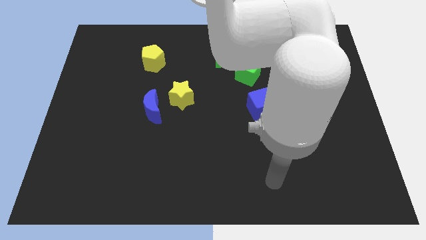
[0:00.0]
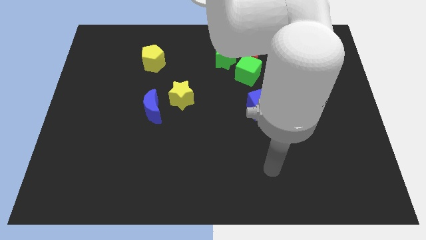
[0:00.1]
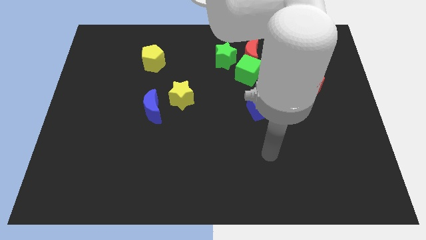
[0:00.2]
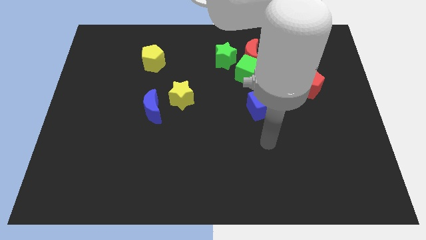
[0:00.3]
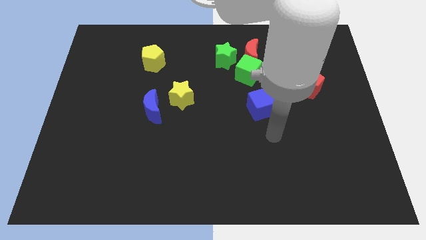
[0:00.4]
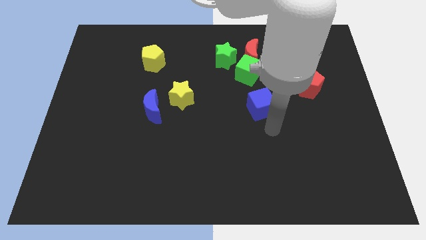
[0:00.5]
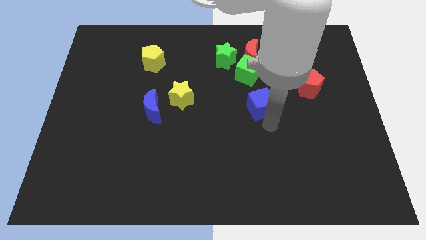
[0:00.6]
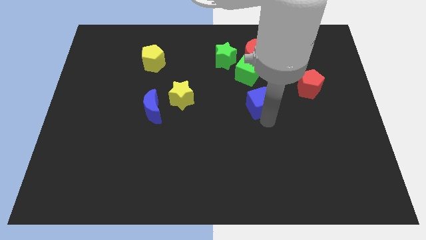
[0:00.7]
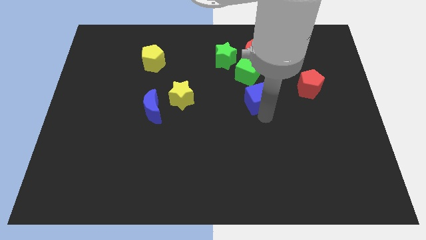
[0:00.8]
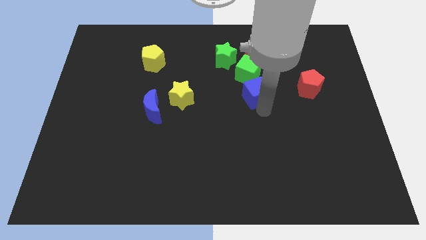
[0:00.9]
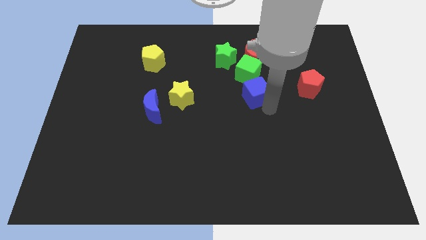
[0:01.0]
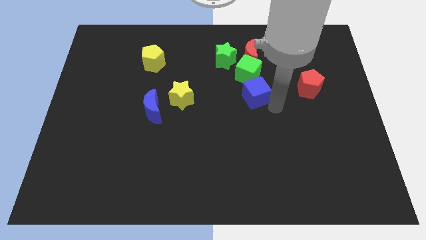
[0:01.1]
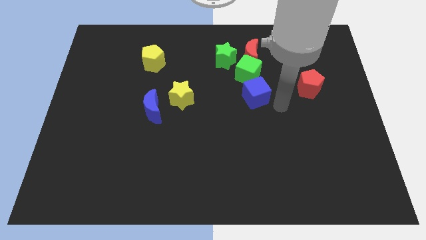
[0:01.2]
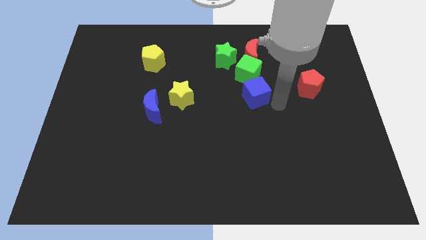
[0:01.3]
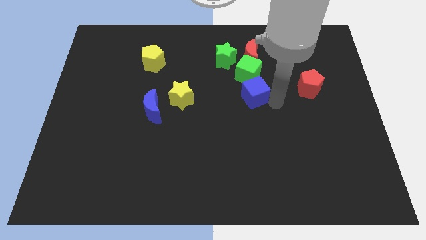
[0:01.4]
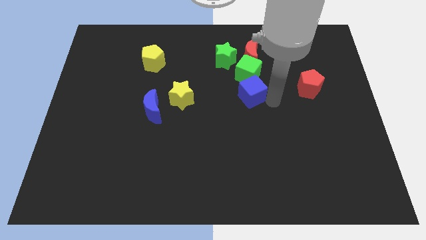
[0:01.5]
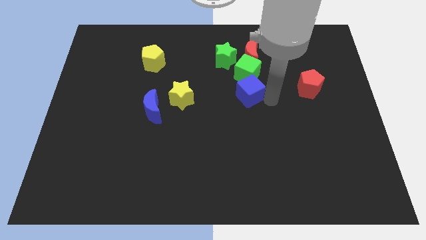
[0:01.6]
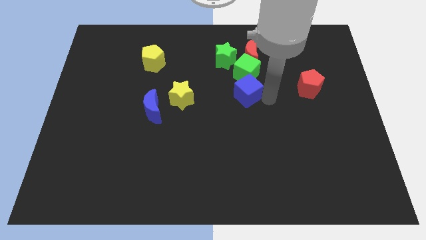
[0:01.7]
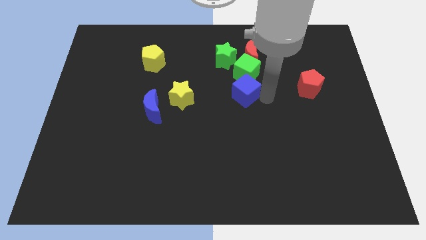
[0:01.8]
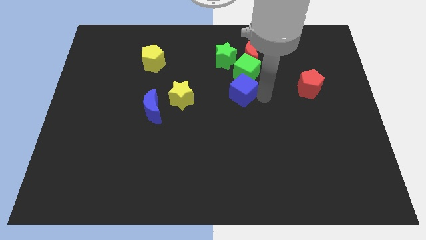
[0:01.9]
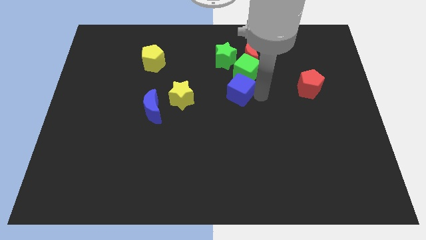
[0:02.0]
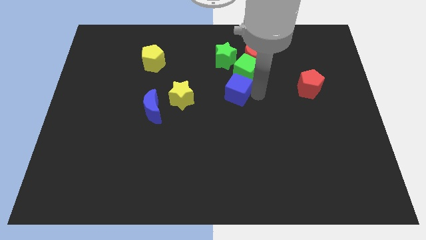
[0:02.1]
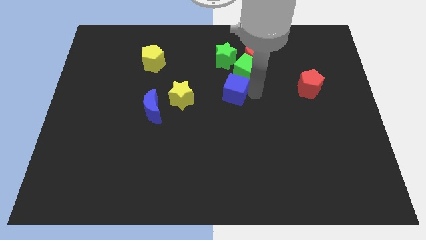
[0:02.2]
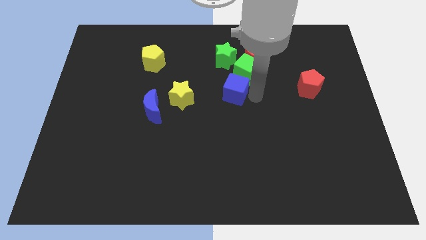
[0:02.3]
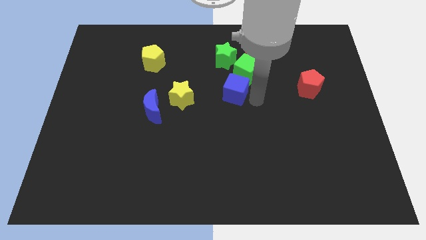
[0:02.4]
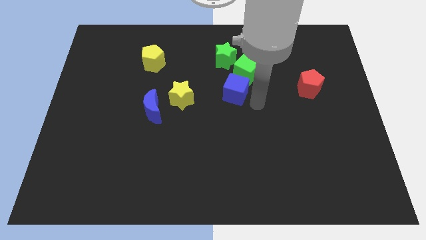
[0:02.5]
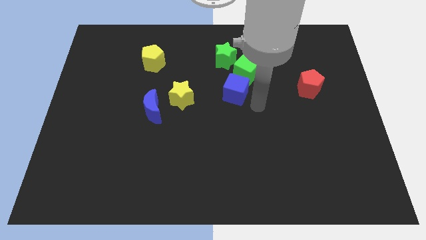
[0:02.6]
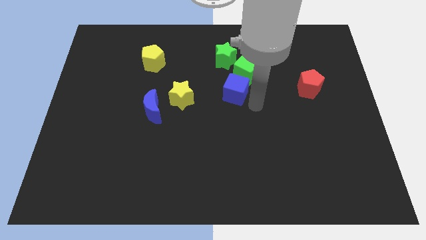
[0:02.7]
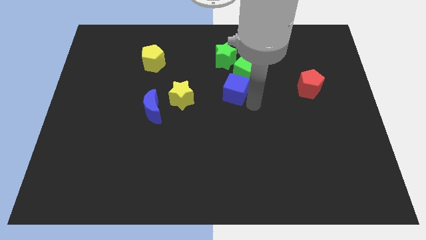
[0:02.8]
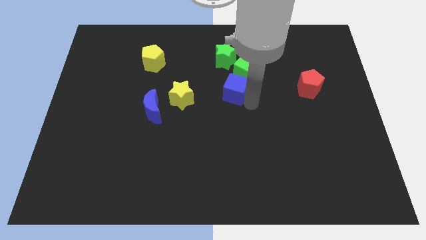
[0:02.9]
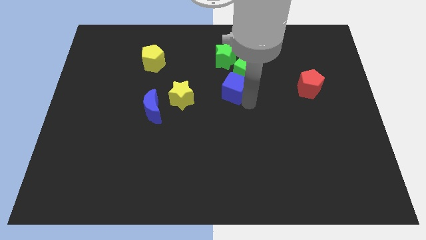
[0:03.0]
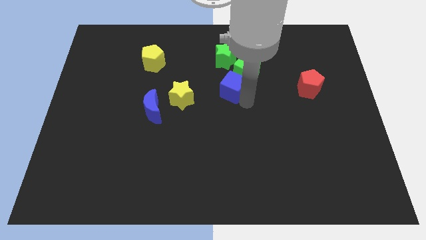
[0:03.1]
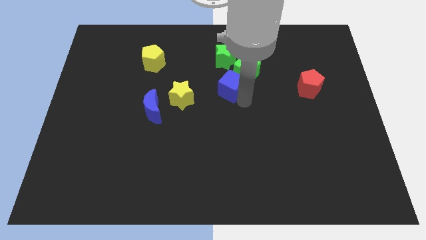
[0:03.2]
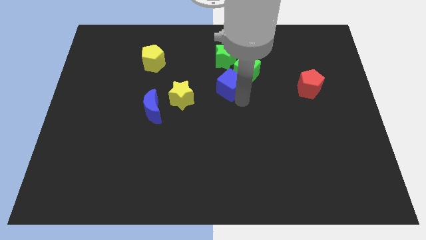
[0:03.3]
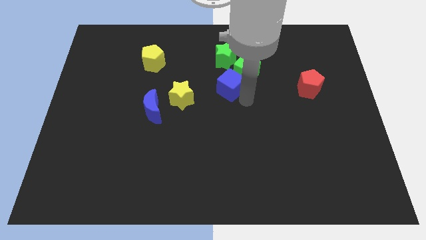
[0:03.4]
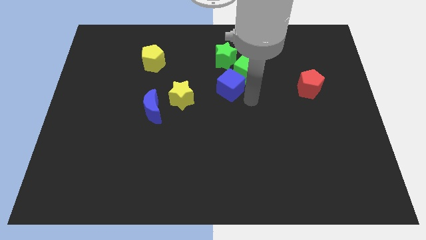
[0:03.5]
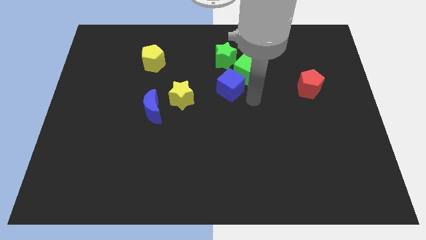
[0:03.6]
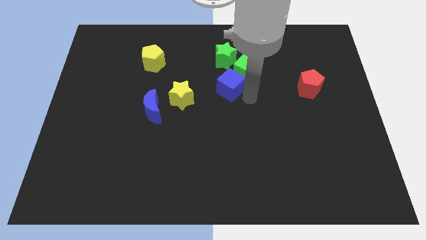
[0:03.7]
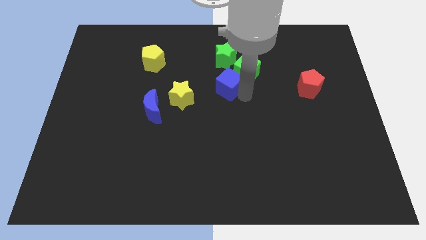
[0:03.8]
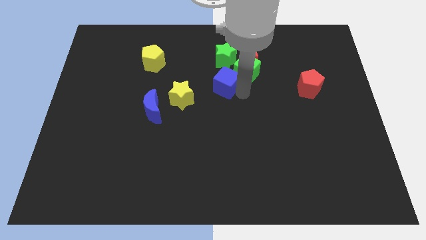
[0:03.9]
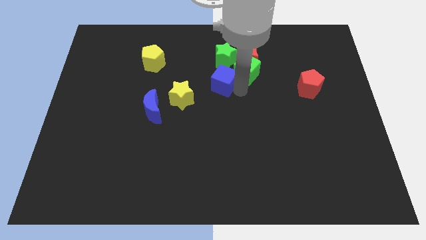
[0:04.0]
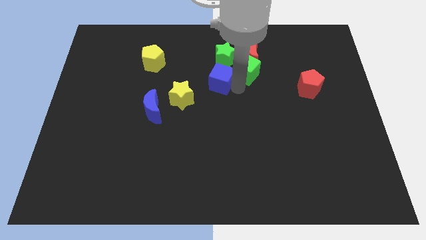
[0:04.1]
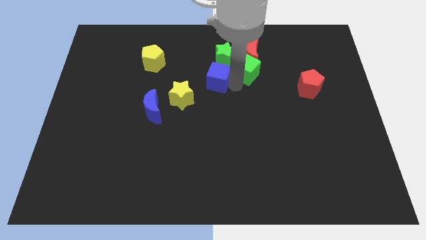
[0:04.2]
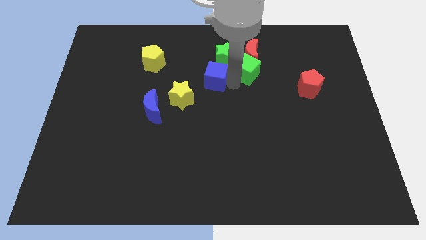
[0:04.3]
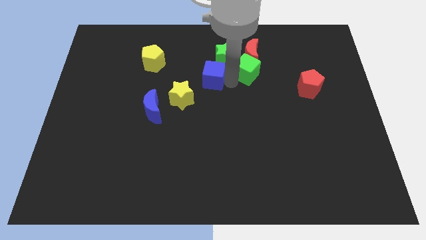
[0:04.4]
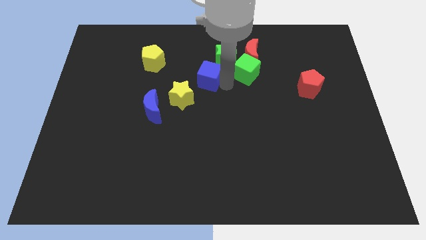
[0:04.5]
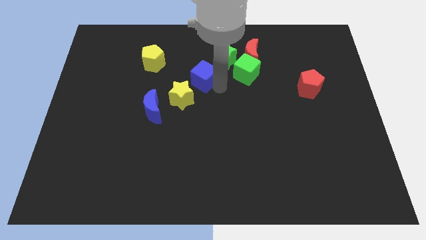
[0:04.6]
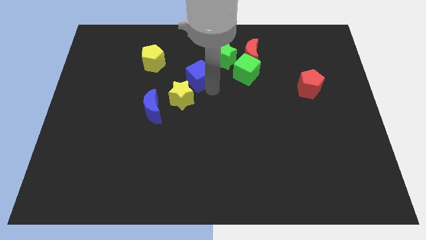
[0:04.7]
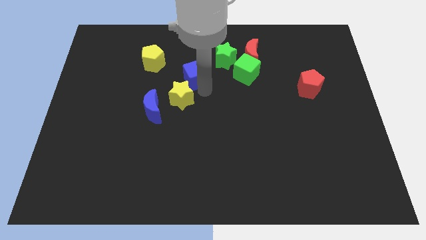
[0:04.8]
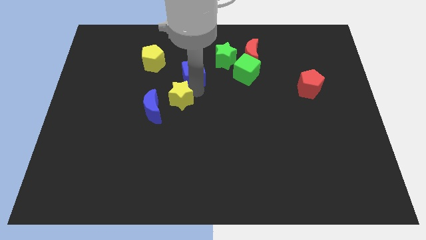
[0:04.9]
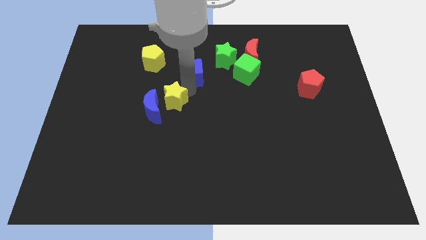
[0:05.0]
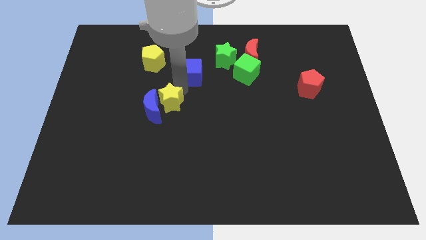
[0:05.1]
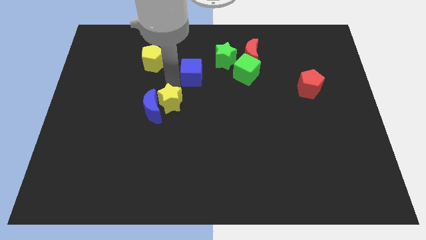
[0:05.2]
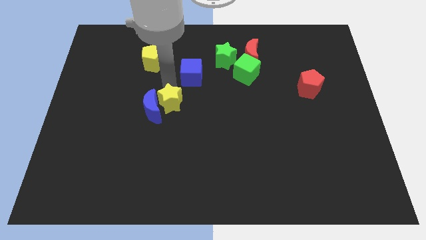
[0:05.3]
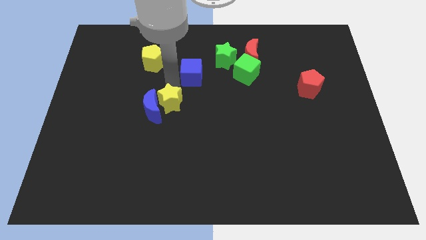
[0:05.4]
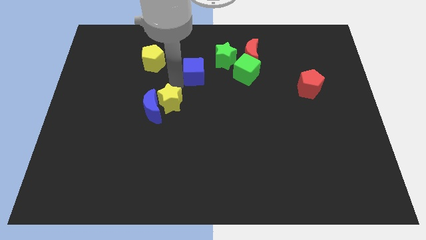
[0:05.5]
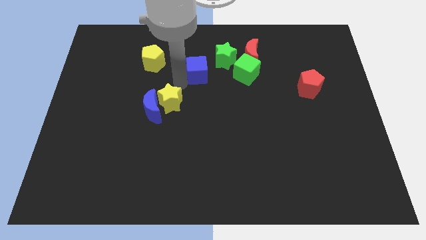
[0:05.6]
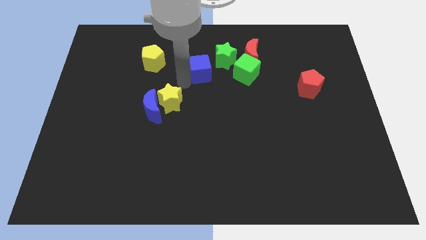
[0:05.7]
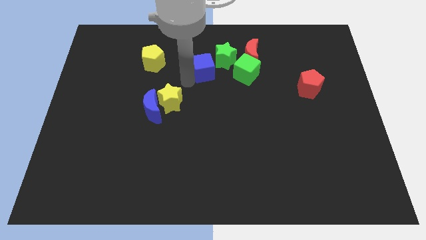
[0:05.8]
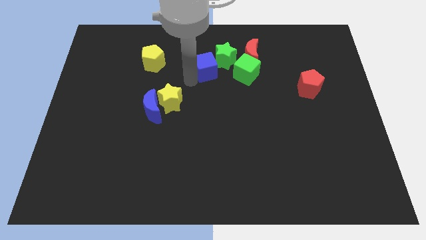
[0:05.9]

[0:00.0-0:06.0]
push the blue cube close to the green star
